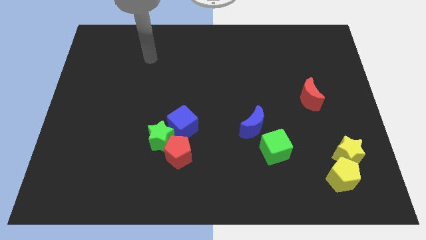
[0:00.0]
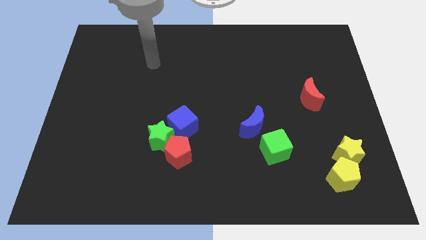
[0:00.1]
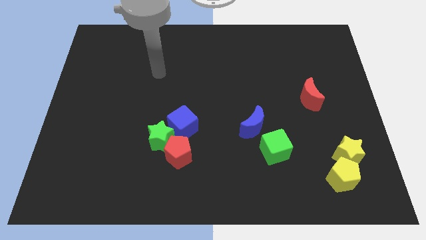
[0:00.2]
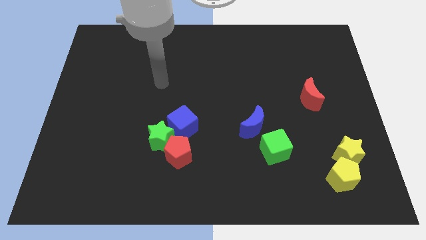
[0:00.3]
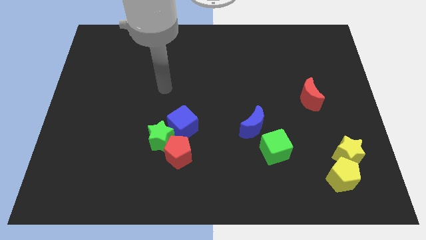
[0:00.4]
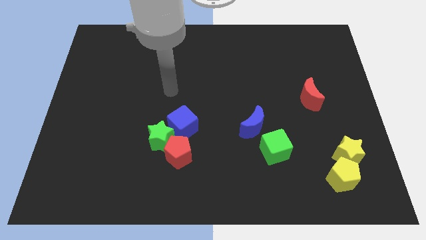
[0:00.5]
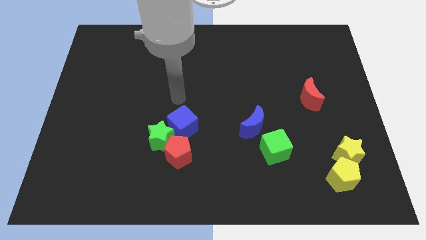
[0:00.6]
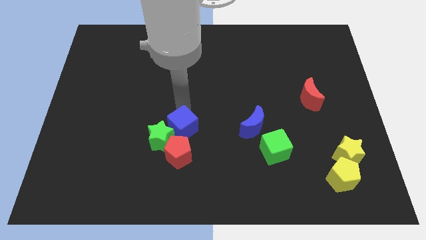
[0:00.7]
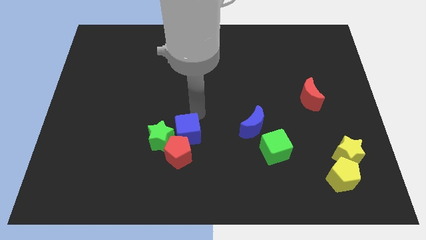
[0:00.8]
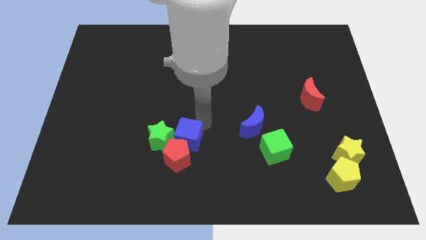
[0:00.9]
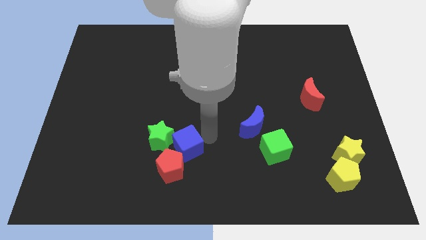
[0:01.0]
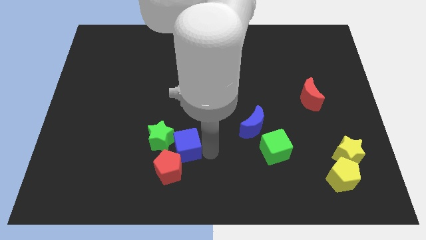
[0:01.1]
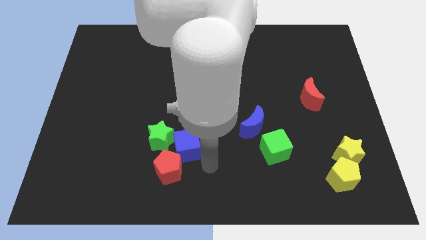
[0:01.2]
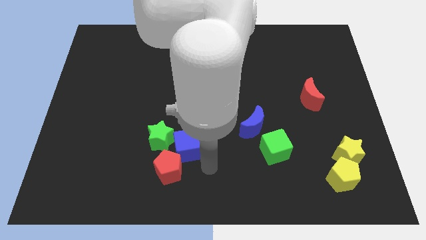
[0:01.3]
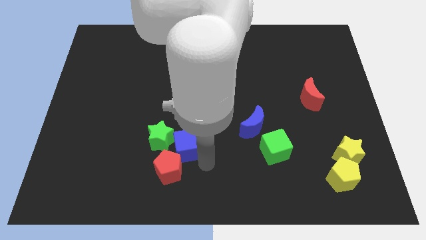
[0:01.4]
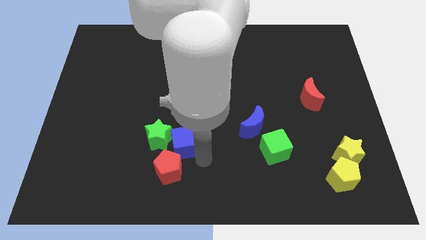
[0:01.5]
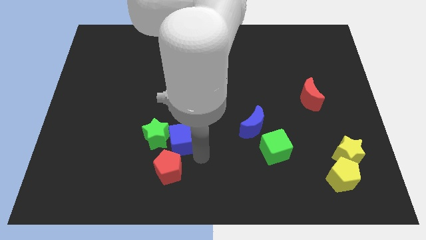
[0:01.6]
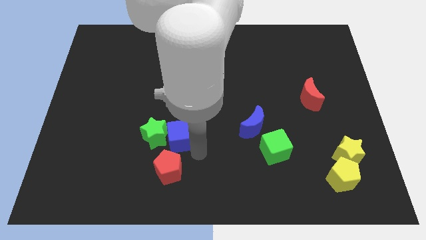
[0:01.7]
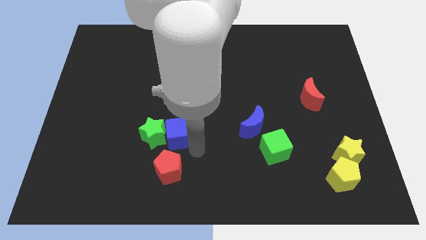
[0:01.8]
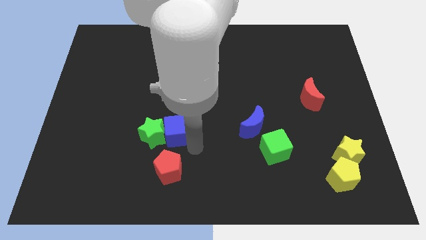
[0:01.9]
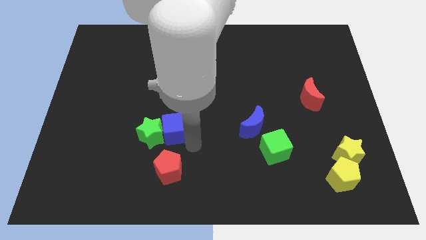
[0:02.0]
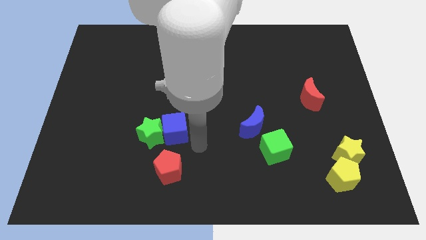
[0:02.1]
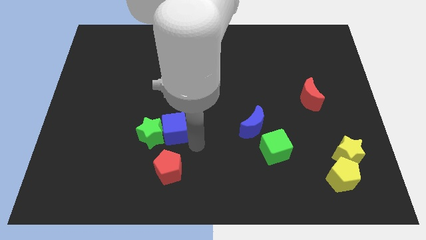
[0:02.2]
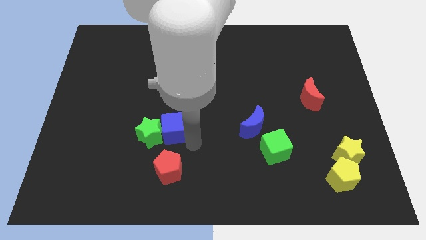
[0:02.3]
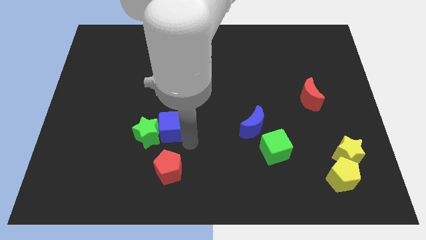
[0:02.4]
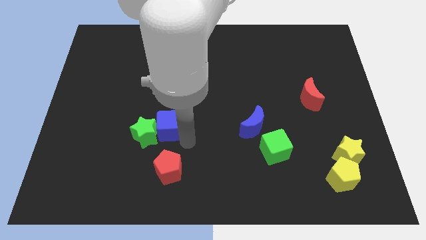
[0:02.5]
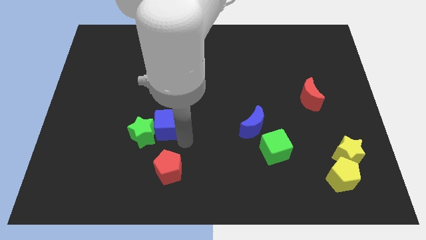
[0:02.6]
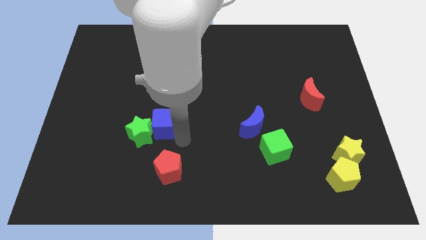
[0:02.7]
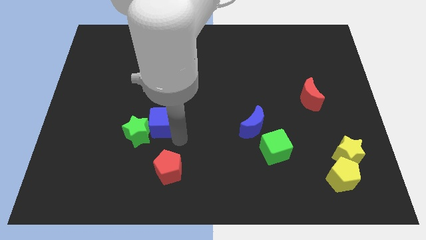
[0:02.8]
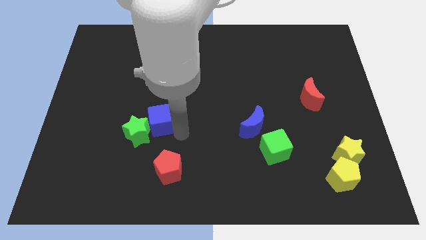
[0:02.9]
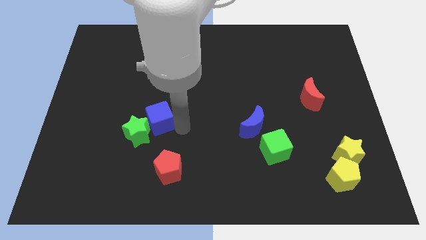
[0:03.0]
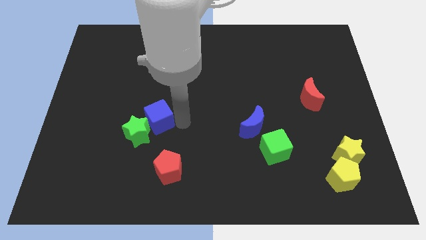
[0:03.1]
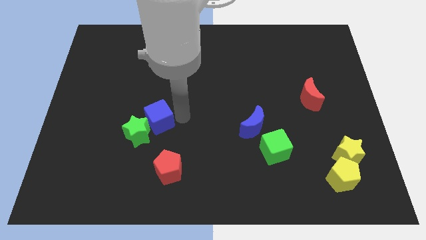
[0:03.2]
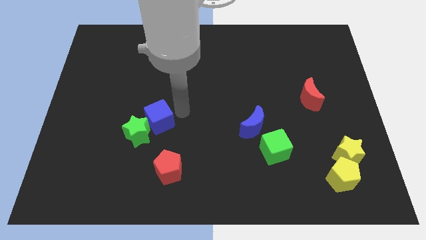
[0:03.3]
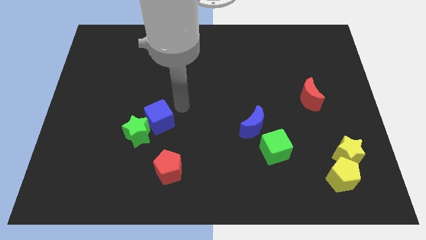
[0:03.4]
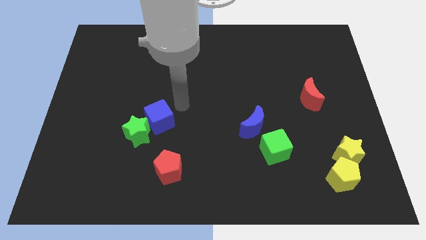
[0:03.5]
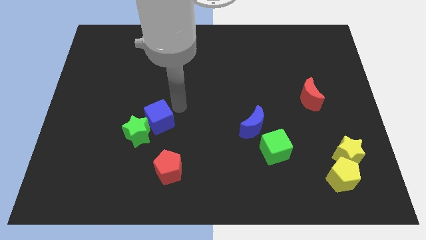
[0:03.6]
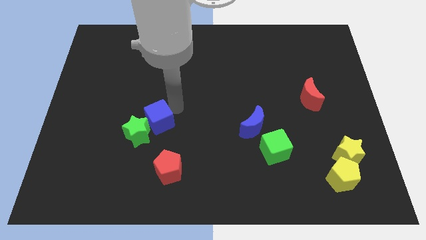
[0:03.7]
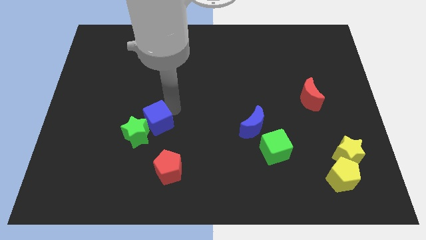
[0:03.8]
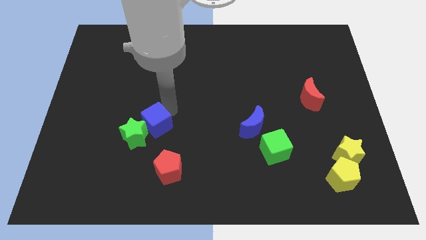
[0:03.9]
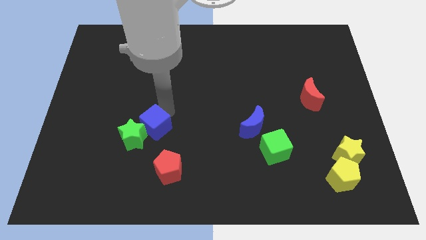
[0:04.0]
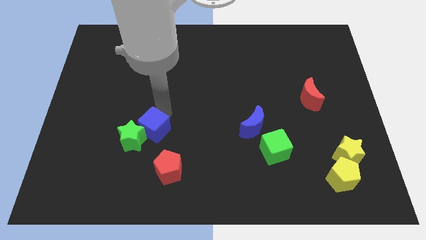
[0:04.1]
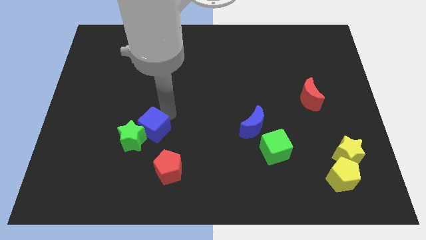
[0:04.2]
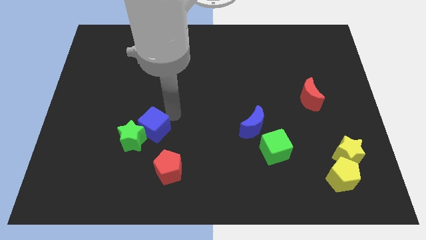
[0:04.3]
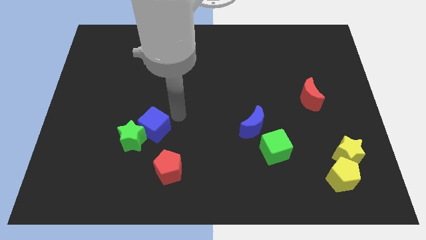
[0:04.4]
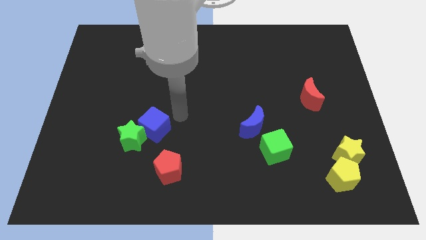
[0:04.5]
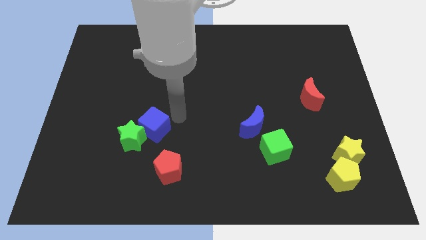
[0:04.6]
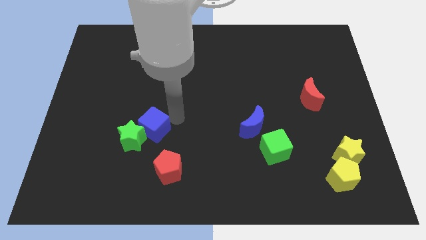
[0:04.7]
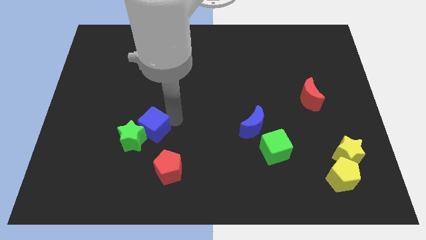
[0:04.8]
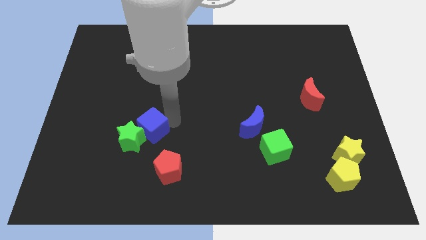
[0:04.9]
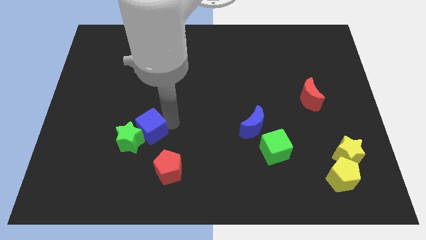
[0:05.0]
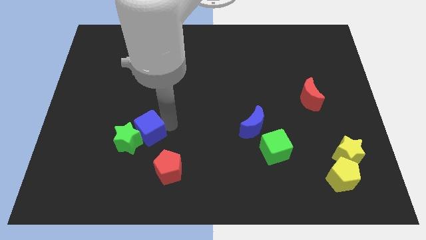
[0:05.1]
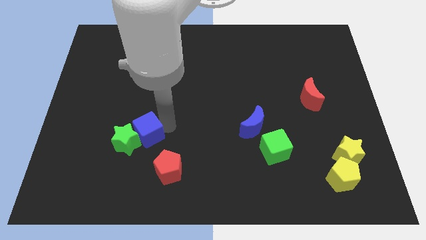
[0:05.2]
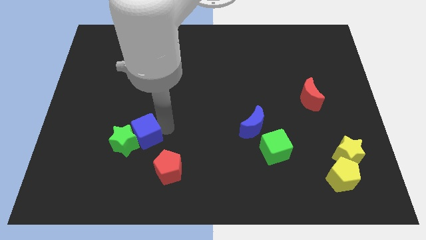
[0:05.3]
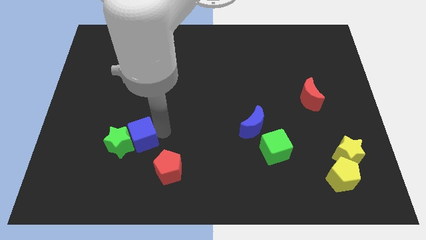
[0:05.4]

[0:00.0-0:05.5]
slightly slide the blue cube down and left diagonally

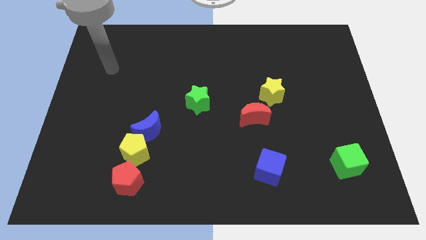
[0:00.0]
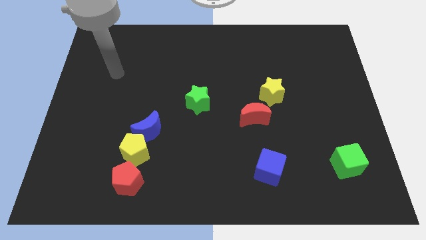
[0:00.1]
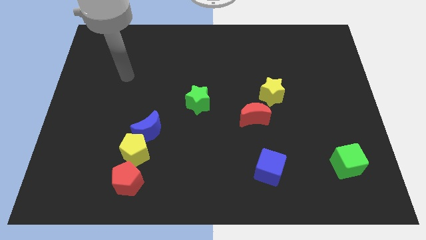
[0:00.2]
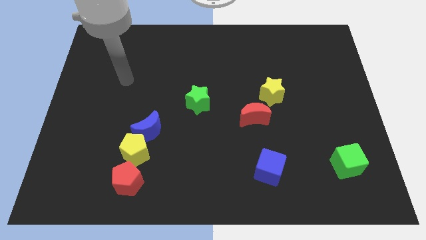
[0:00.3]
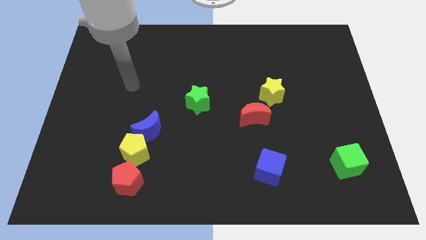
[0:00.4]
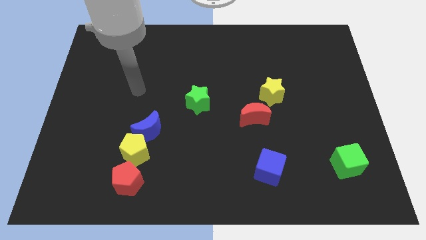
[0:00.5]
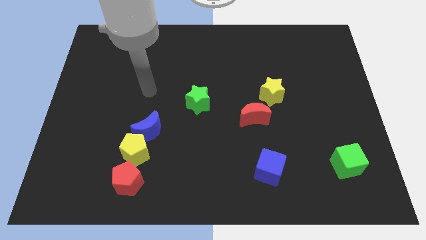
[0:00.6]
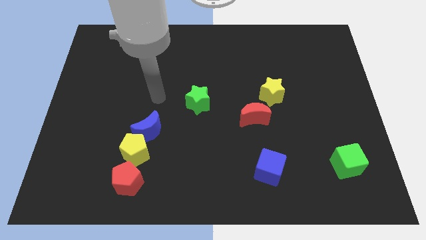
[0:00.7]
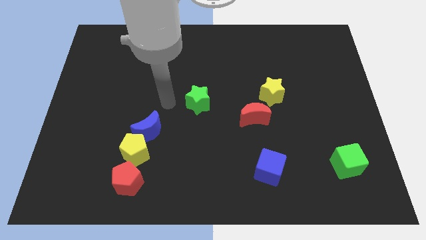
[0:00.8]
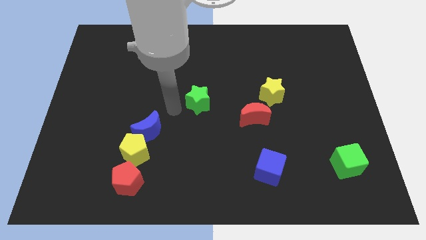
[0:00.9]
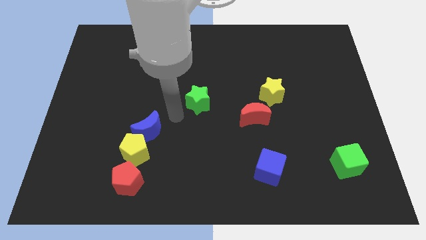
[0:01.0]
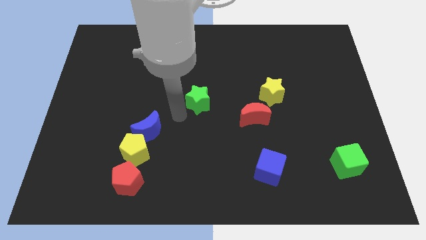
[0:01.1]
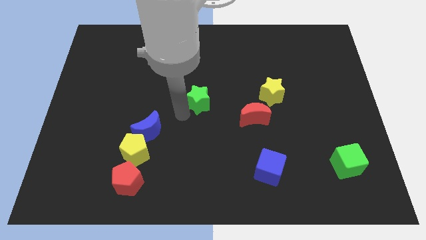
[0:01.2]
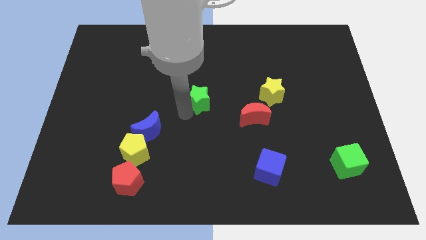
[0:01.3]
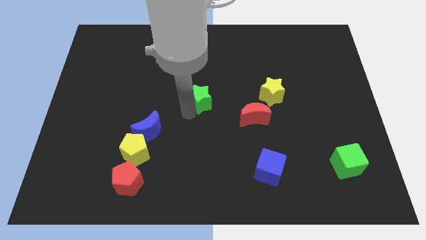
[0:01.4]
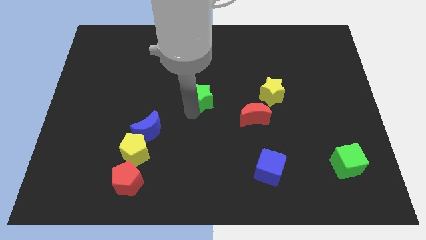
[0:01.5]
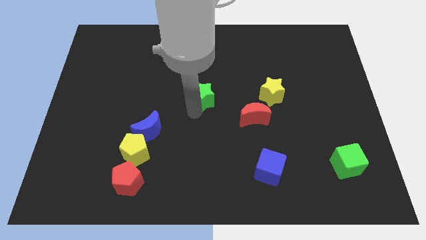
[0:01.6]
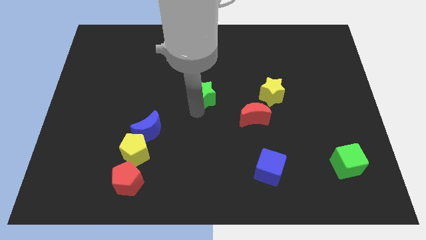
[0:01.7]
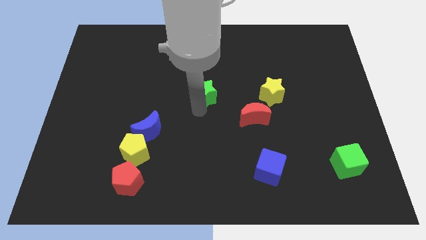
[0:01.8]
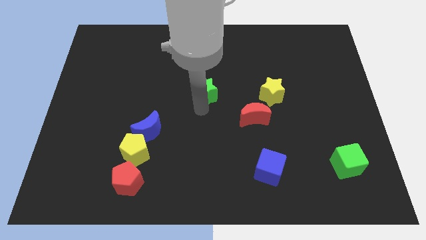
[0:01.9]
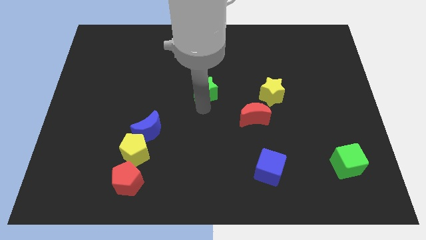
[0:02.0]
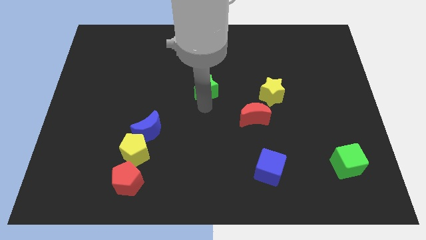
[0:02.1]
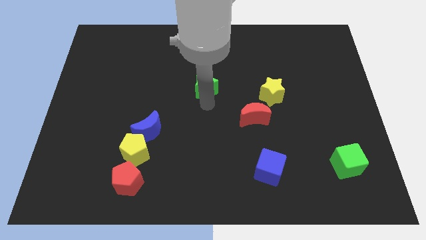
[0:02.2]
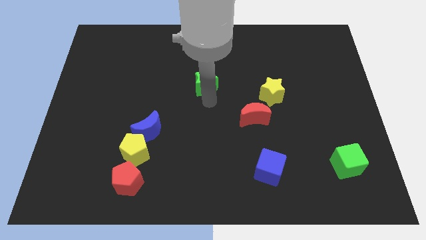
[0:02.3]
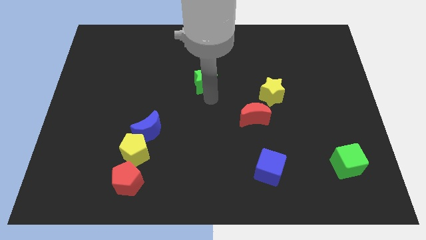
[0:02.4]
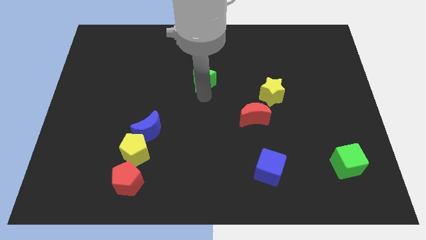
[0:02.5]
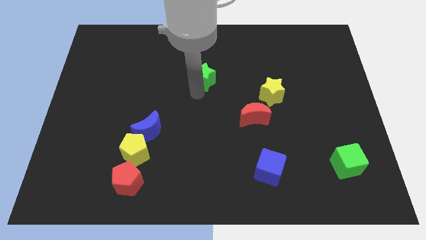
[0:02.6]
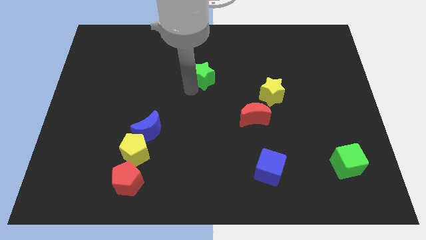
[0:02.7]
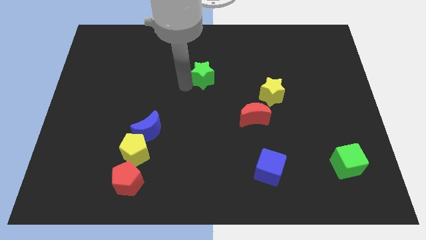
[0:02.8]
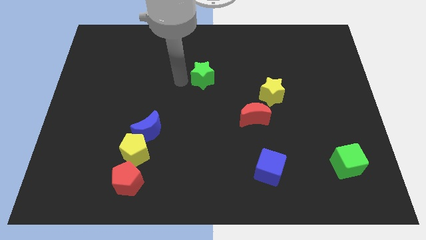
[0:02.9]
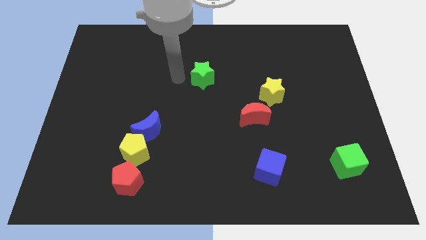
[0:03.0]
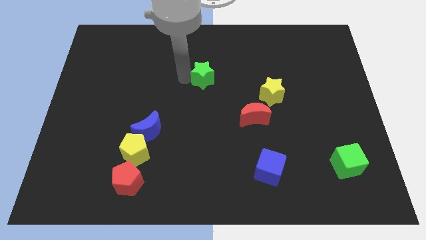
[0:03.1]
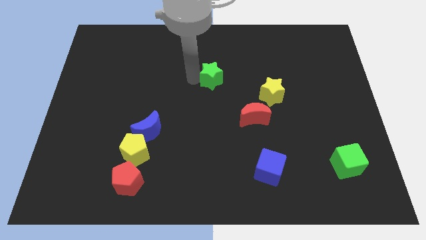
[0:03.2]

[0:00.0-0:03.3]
slide the green star a little bit diagonally up and right
